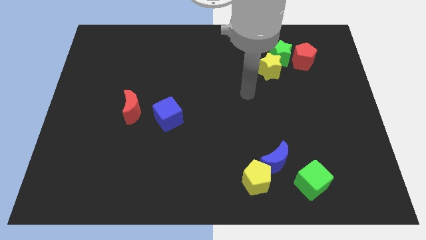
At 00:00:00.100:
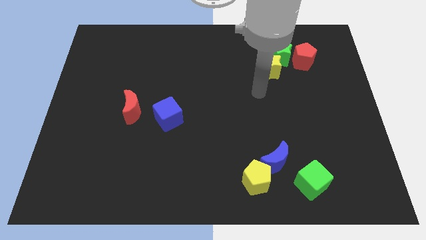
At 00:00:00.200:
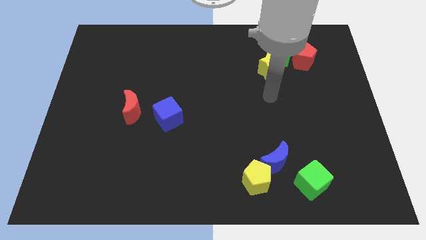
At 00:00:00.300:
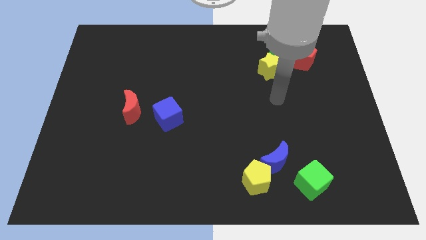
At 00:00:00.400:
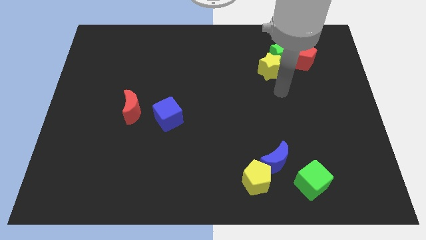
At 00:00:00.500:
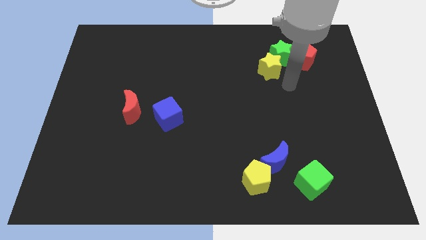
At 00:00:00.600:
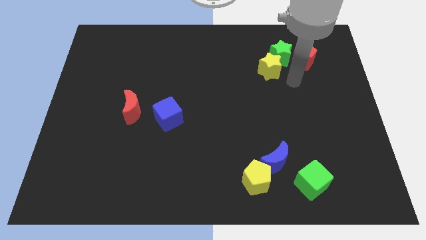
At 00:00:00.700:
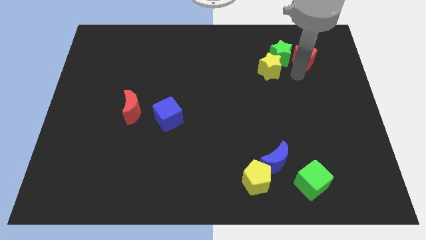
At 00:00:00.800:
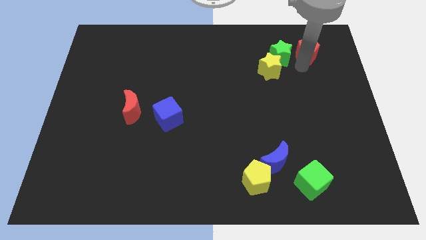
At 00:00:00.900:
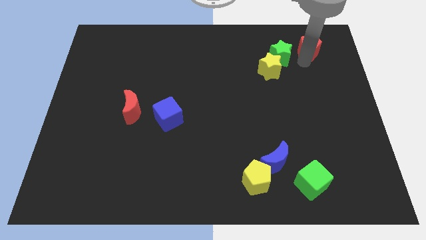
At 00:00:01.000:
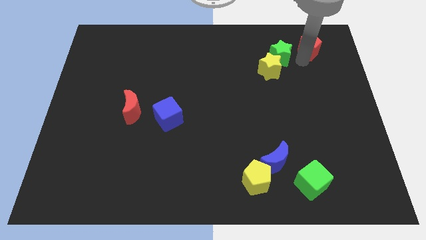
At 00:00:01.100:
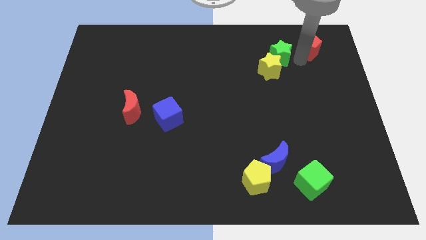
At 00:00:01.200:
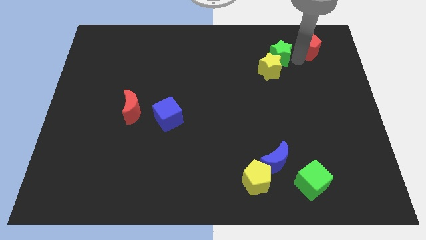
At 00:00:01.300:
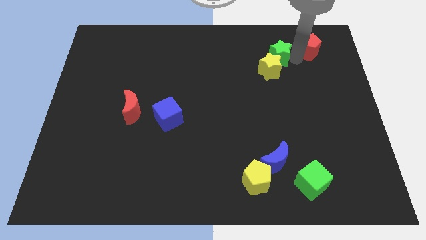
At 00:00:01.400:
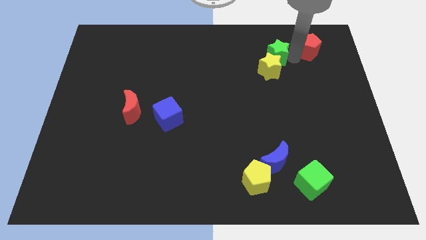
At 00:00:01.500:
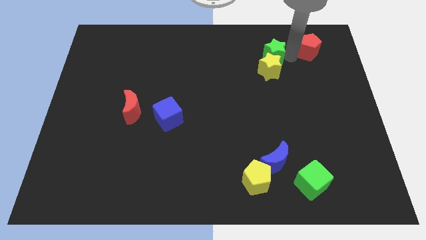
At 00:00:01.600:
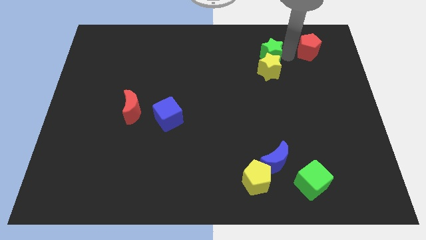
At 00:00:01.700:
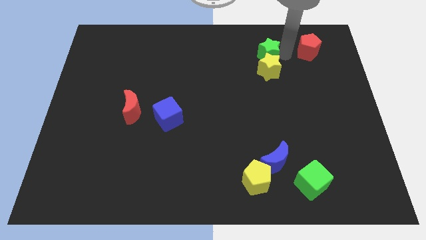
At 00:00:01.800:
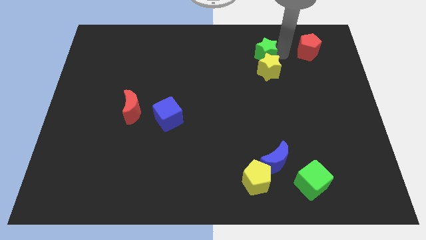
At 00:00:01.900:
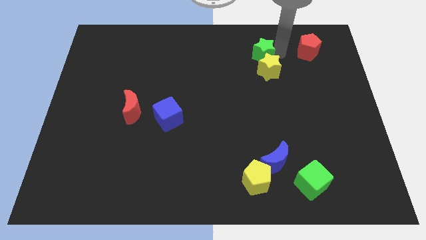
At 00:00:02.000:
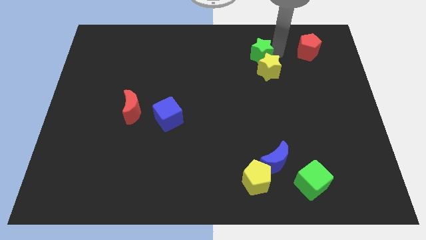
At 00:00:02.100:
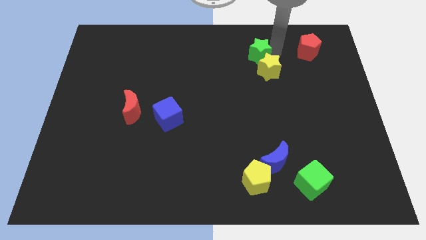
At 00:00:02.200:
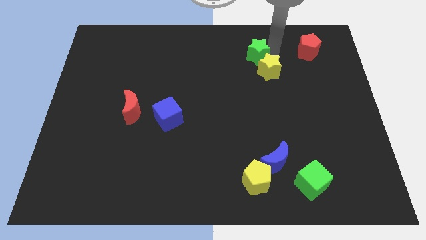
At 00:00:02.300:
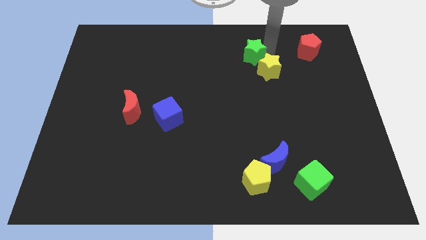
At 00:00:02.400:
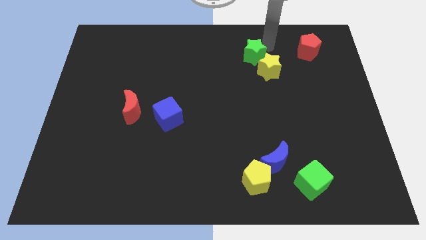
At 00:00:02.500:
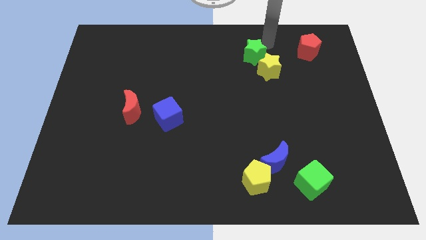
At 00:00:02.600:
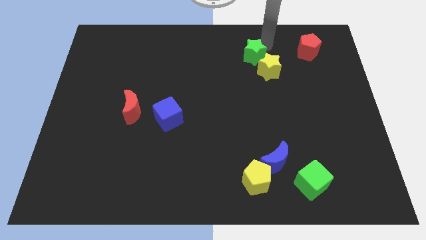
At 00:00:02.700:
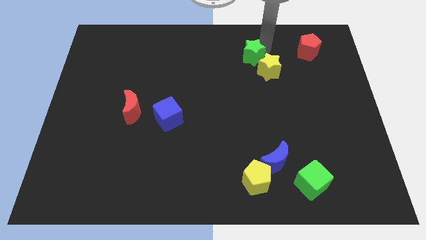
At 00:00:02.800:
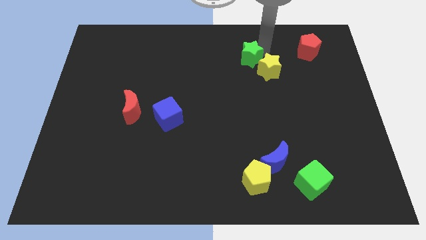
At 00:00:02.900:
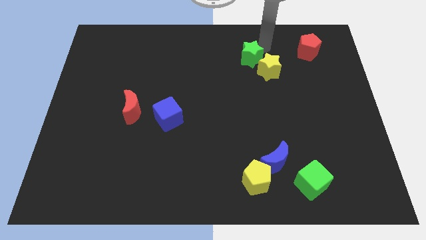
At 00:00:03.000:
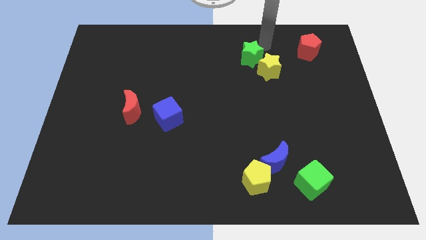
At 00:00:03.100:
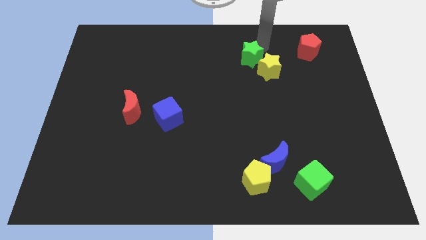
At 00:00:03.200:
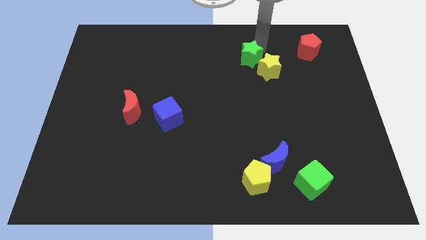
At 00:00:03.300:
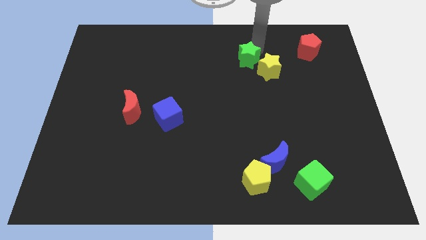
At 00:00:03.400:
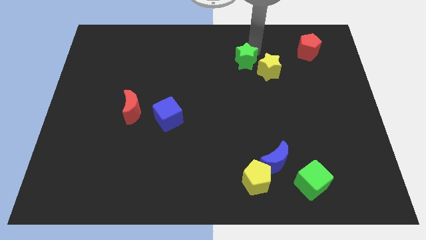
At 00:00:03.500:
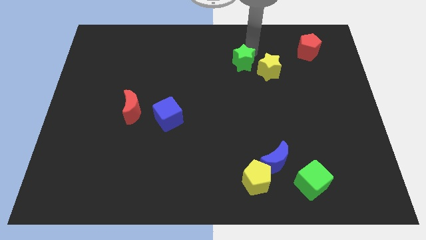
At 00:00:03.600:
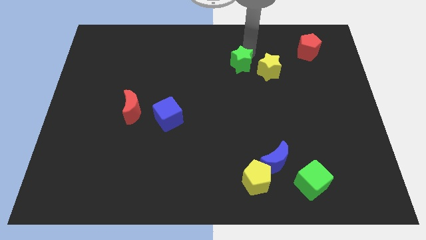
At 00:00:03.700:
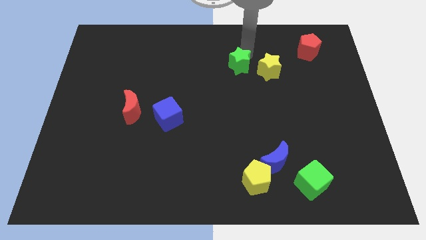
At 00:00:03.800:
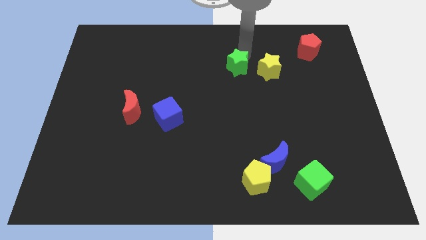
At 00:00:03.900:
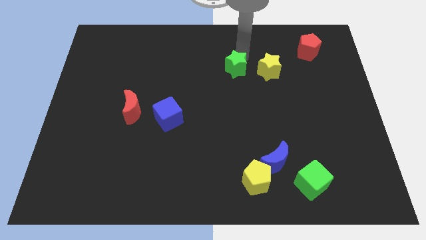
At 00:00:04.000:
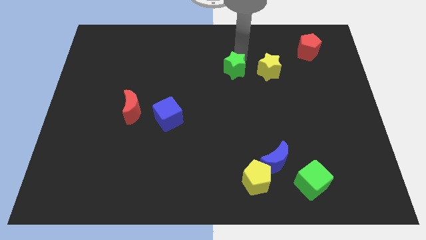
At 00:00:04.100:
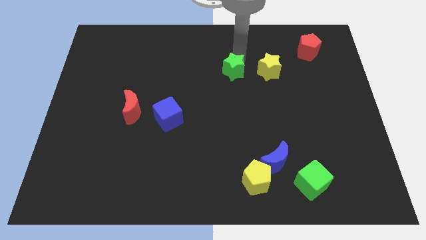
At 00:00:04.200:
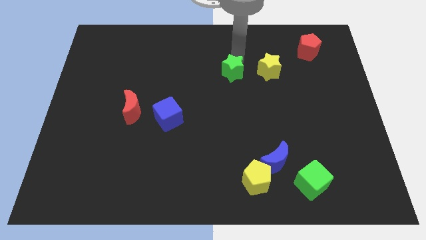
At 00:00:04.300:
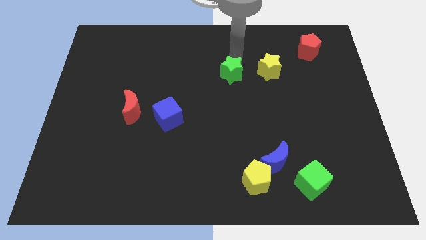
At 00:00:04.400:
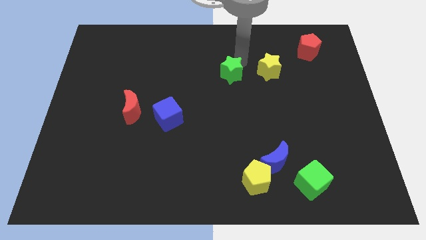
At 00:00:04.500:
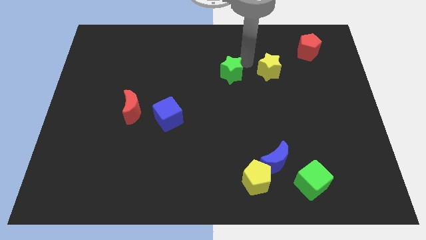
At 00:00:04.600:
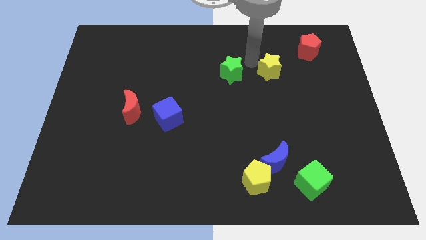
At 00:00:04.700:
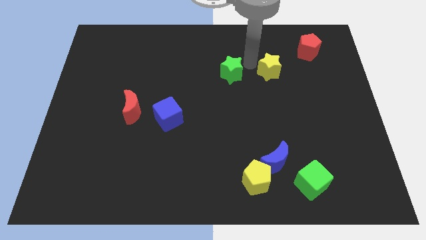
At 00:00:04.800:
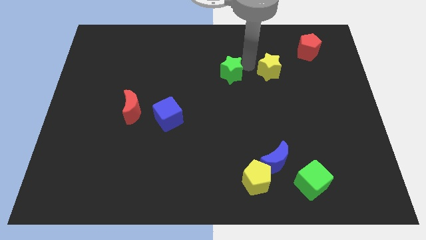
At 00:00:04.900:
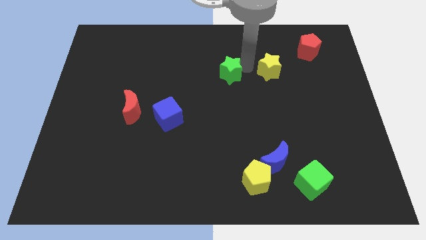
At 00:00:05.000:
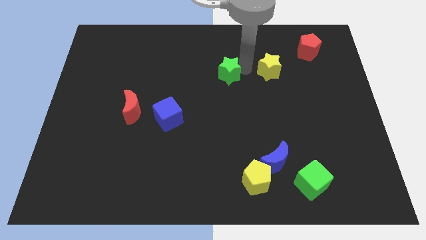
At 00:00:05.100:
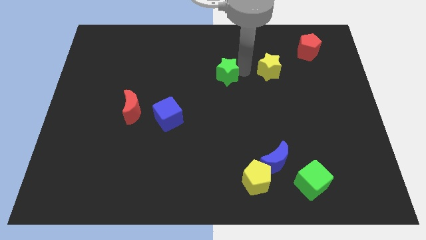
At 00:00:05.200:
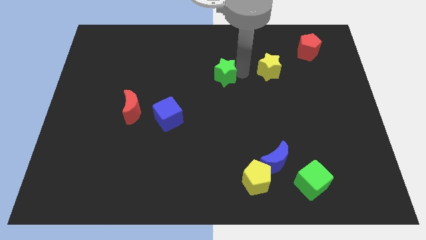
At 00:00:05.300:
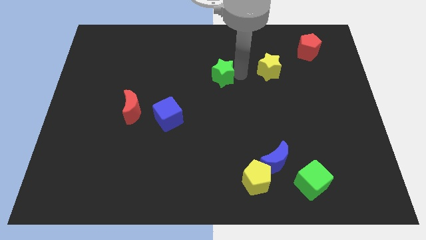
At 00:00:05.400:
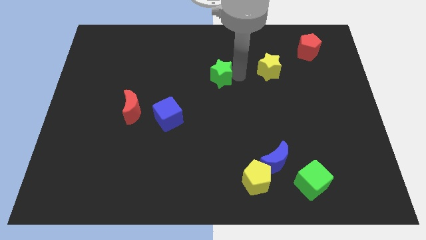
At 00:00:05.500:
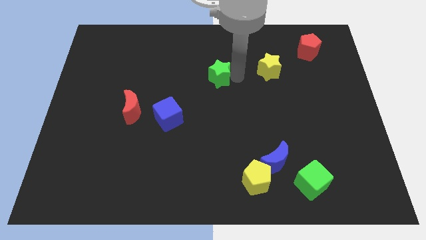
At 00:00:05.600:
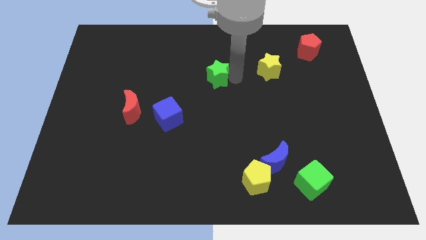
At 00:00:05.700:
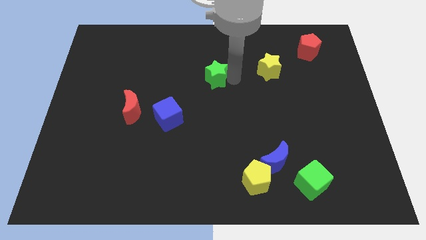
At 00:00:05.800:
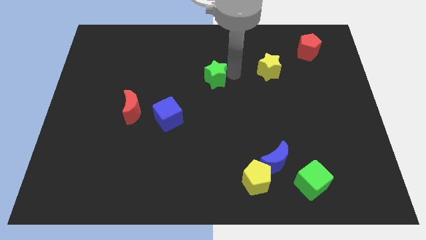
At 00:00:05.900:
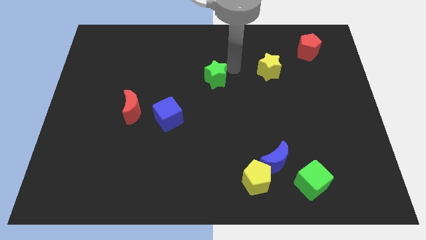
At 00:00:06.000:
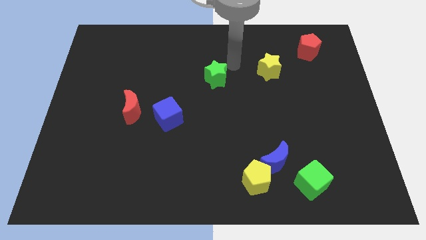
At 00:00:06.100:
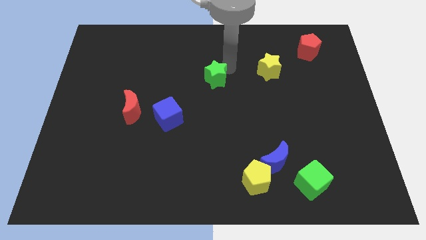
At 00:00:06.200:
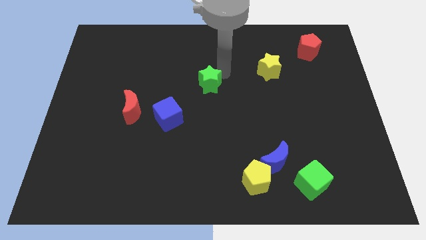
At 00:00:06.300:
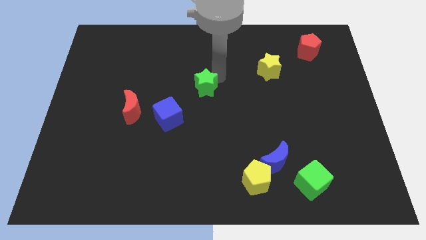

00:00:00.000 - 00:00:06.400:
move the green star to the top right of the blue cube
